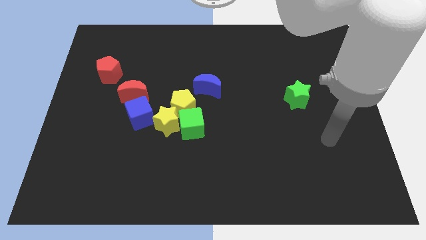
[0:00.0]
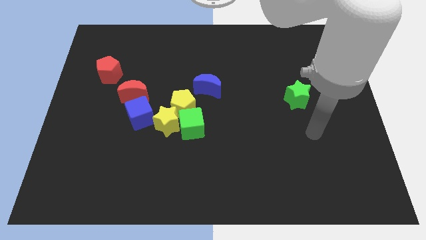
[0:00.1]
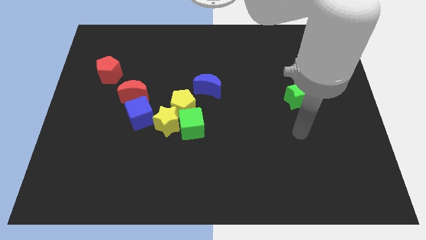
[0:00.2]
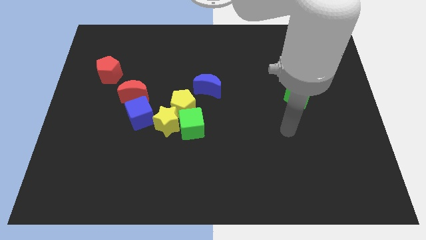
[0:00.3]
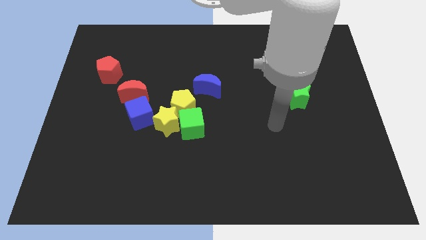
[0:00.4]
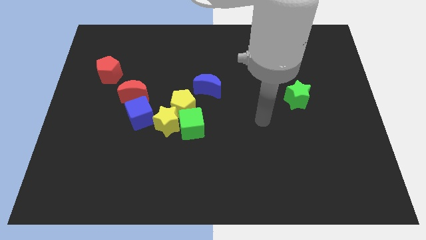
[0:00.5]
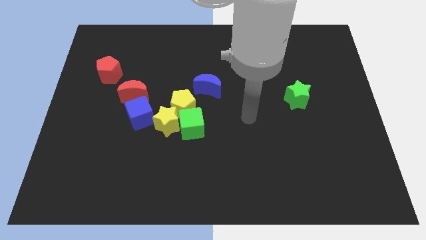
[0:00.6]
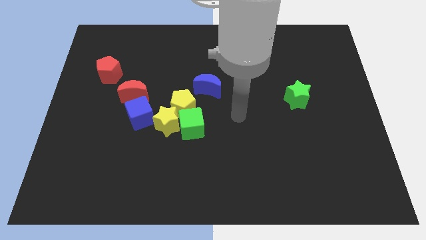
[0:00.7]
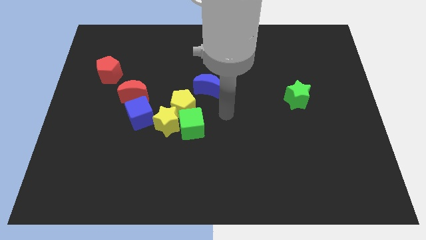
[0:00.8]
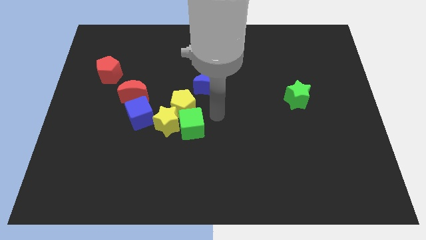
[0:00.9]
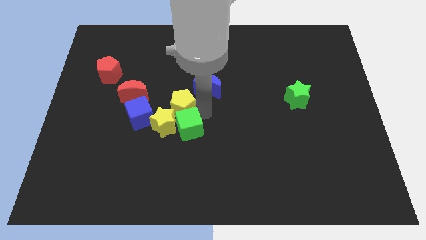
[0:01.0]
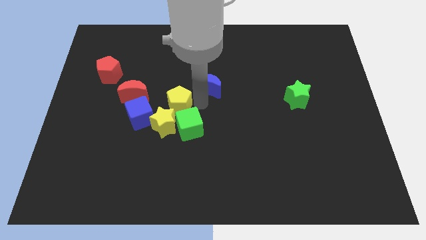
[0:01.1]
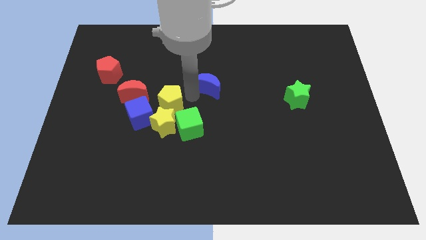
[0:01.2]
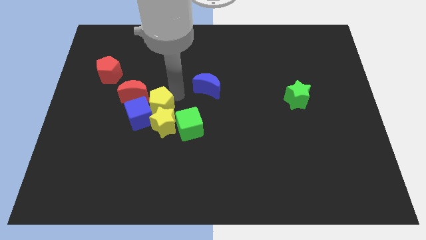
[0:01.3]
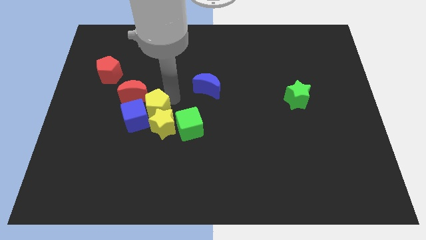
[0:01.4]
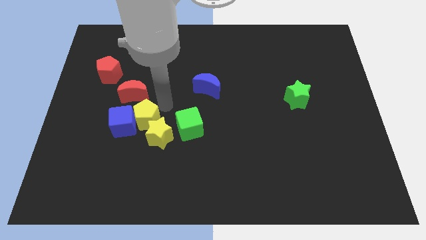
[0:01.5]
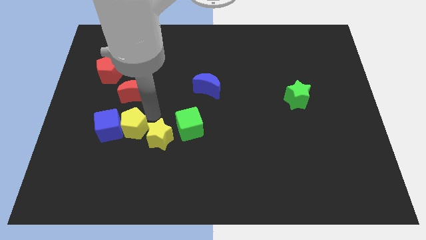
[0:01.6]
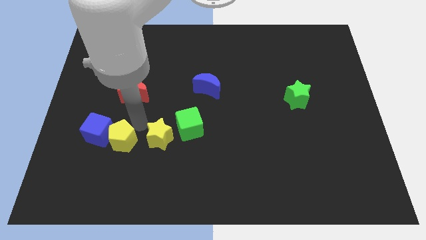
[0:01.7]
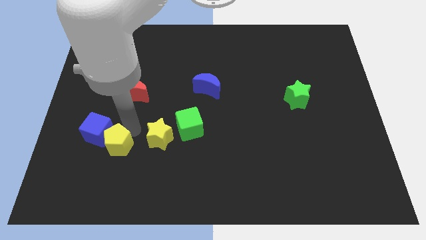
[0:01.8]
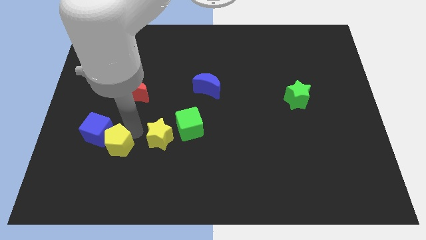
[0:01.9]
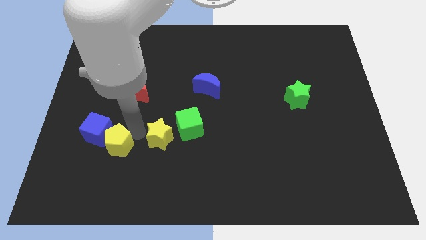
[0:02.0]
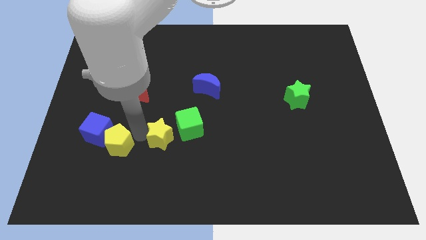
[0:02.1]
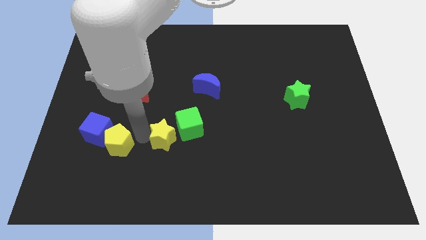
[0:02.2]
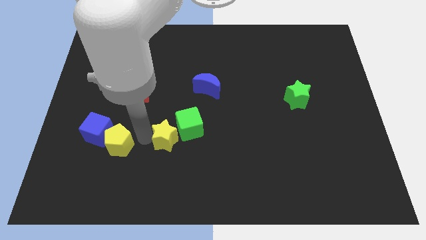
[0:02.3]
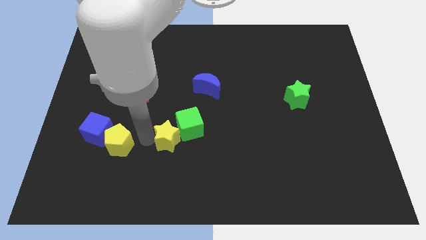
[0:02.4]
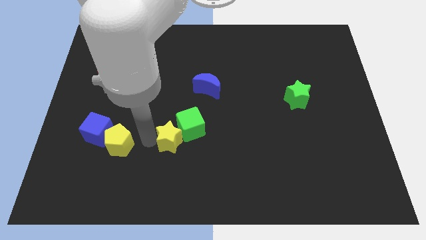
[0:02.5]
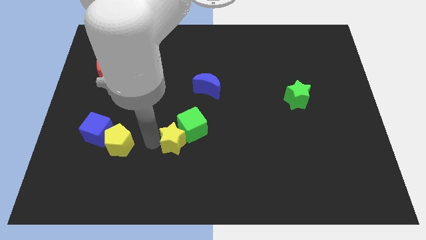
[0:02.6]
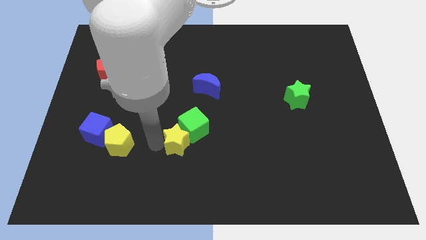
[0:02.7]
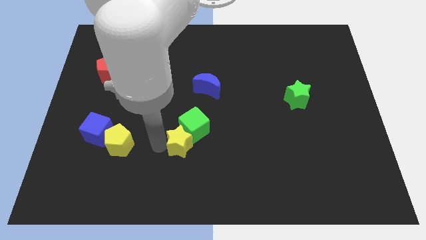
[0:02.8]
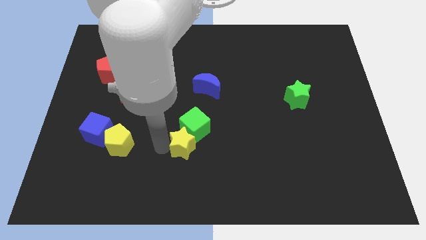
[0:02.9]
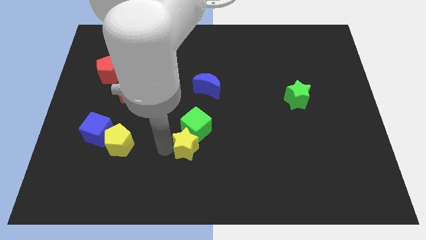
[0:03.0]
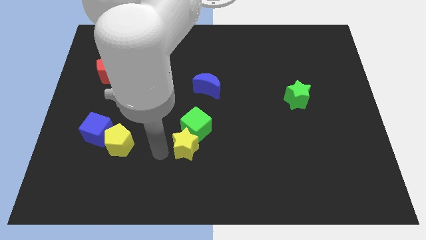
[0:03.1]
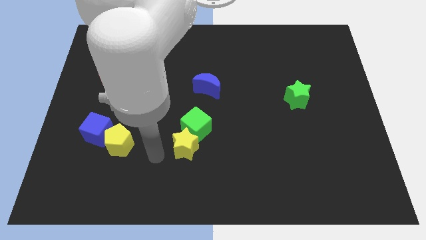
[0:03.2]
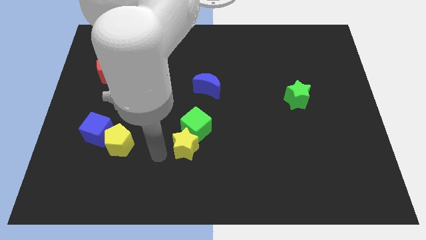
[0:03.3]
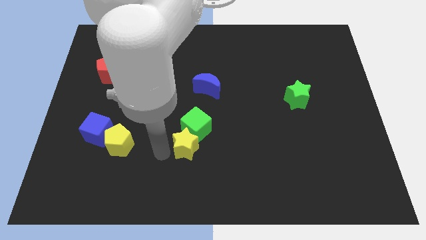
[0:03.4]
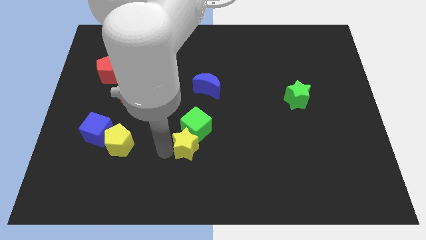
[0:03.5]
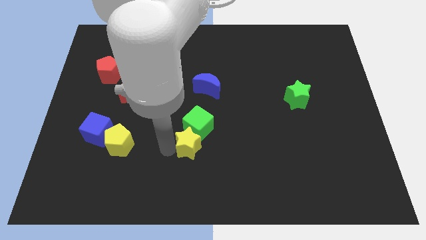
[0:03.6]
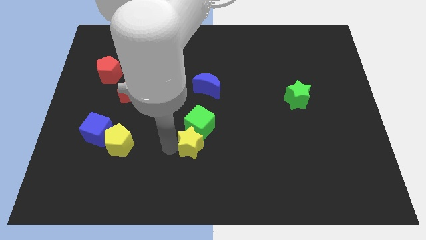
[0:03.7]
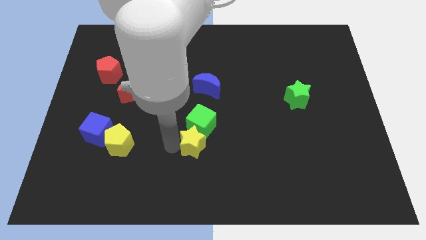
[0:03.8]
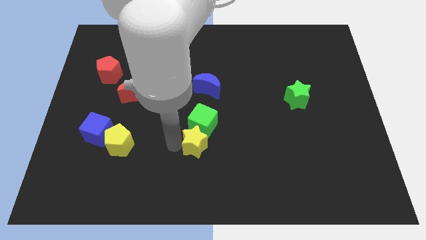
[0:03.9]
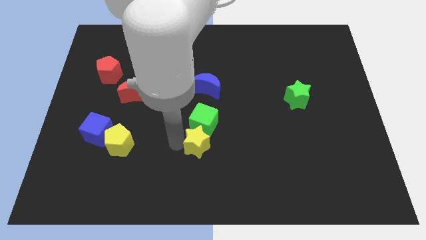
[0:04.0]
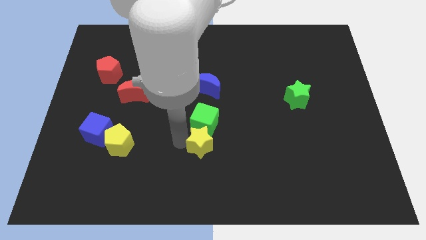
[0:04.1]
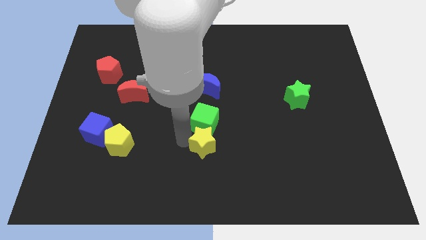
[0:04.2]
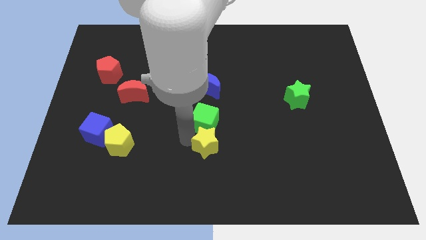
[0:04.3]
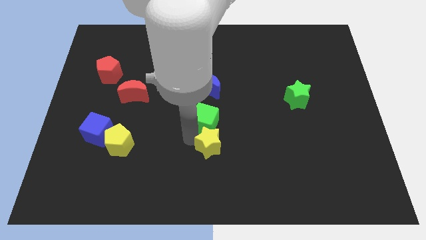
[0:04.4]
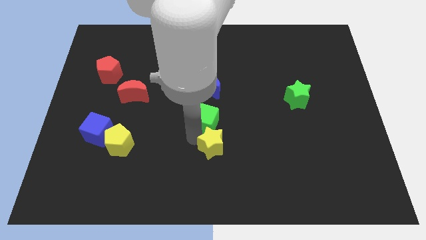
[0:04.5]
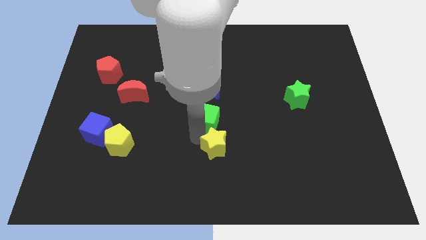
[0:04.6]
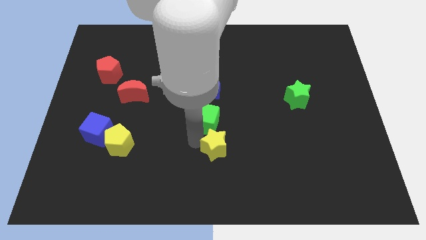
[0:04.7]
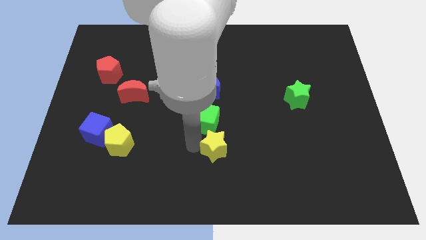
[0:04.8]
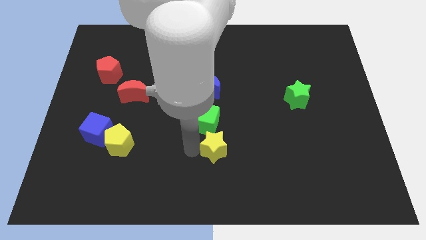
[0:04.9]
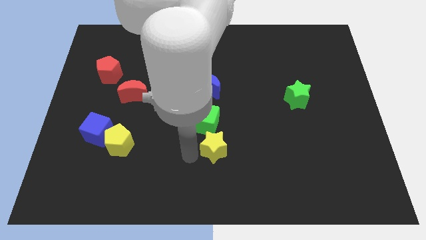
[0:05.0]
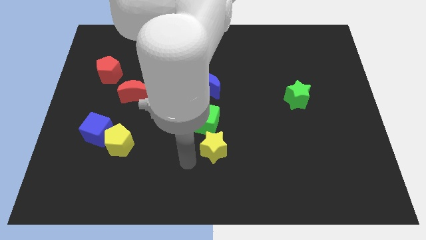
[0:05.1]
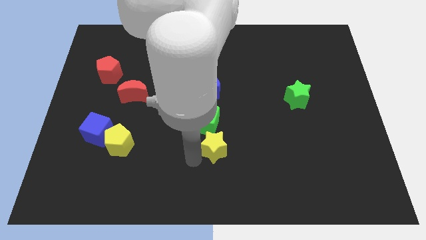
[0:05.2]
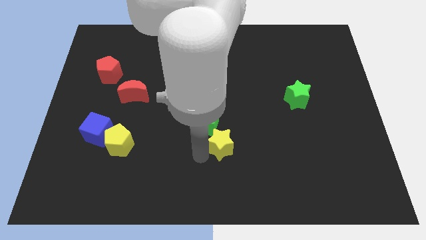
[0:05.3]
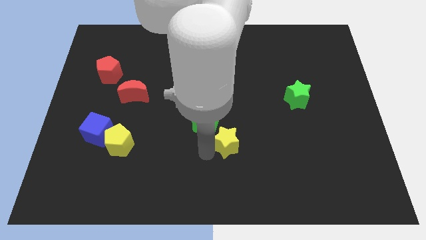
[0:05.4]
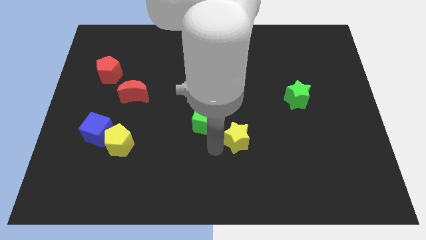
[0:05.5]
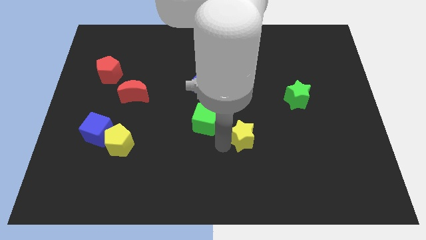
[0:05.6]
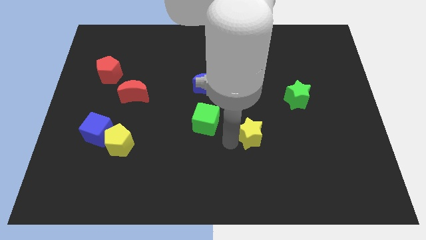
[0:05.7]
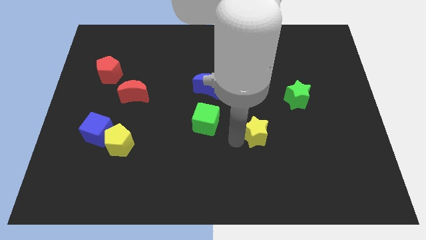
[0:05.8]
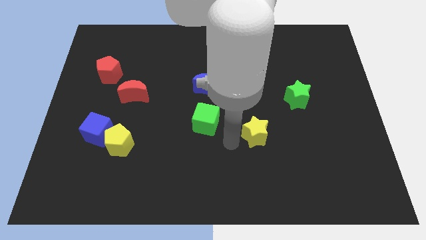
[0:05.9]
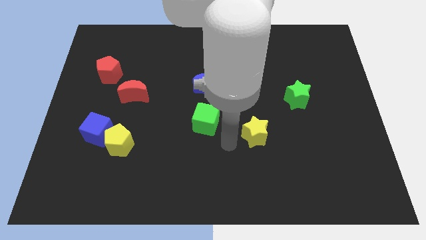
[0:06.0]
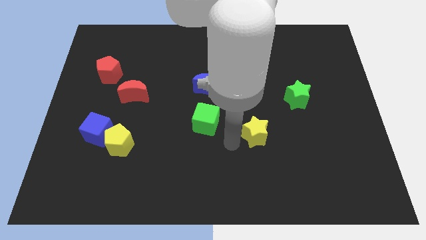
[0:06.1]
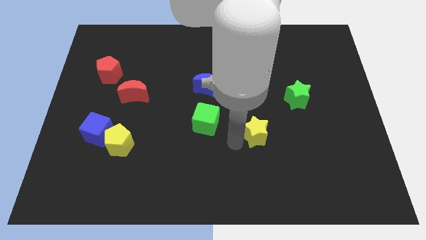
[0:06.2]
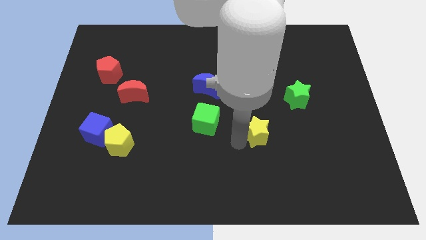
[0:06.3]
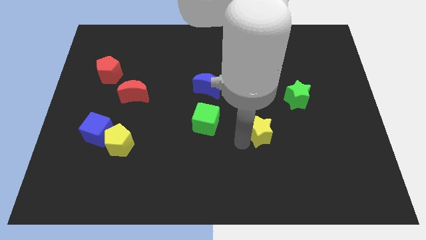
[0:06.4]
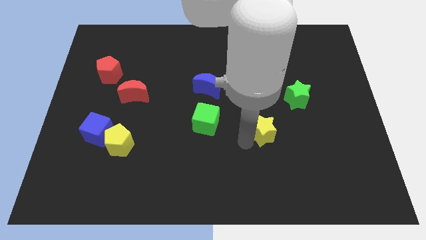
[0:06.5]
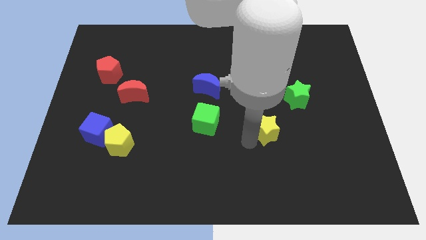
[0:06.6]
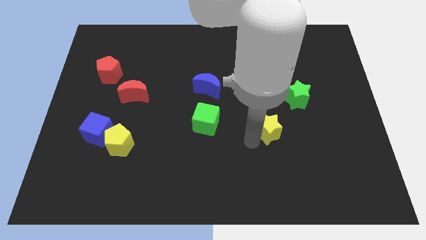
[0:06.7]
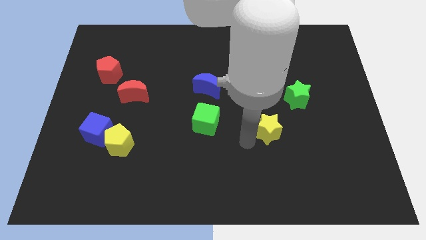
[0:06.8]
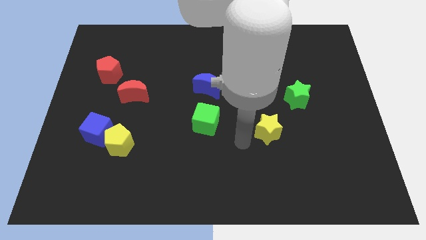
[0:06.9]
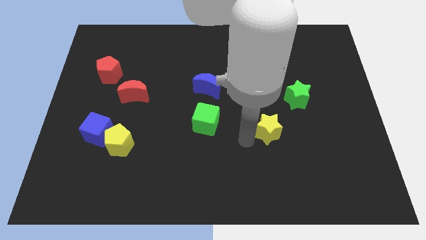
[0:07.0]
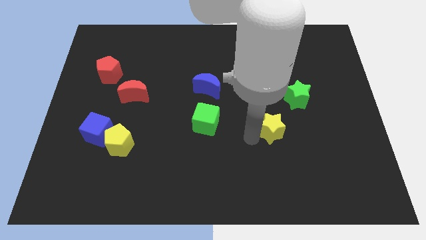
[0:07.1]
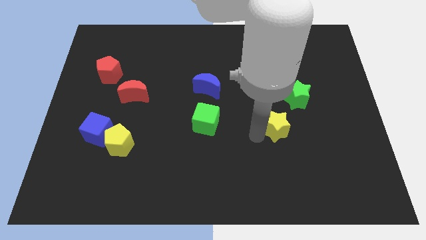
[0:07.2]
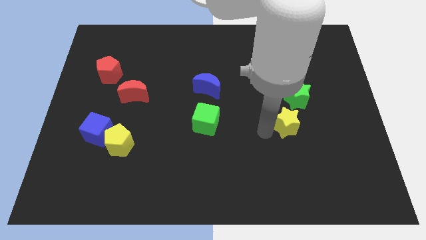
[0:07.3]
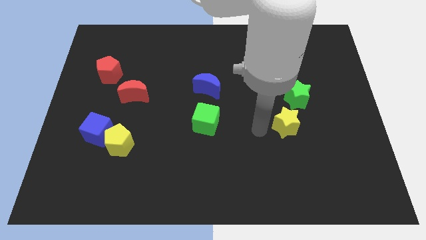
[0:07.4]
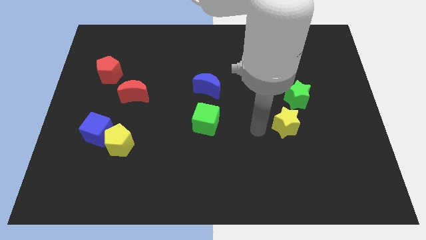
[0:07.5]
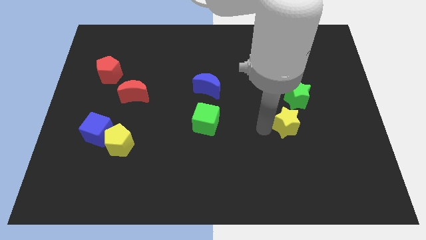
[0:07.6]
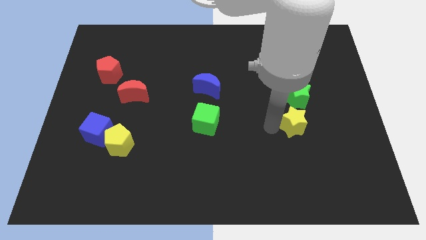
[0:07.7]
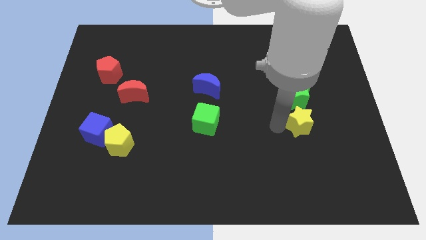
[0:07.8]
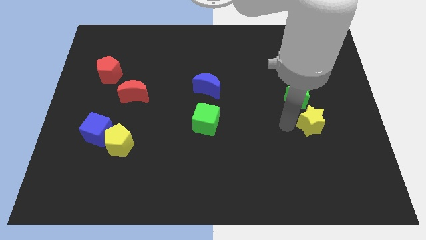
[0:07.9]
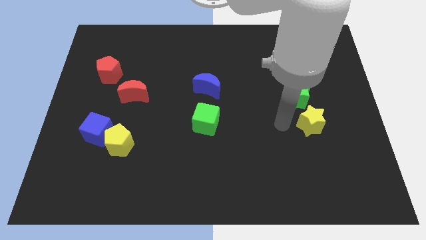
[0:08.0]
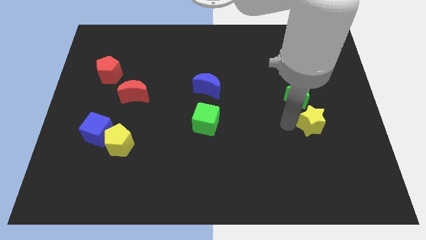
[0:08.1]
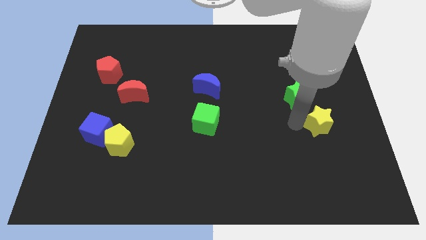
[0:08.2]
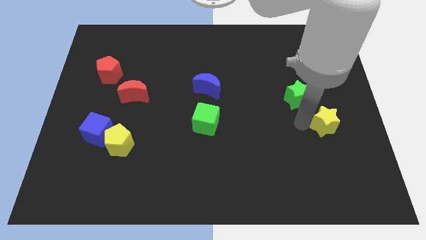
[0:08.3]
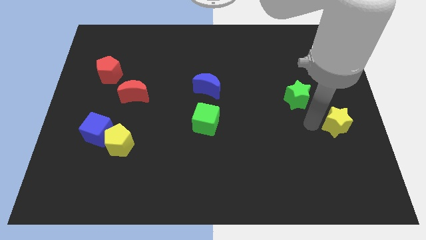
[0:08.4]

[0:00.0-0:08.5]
slide the yellow star to the center right
